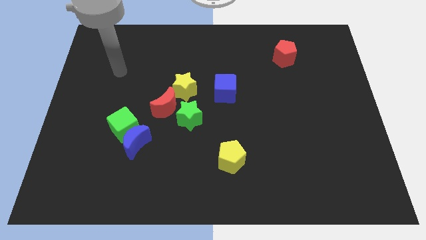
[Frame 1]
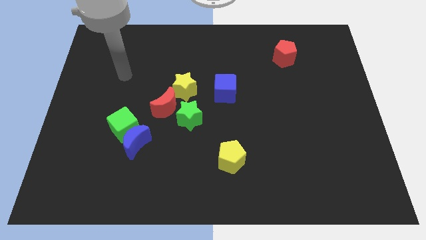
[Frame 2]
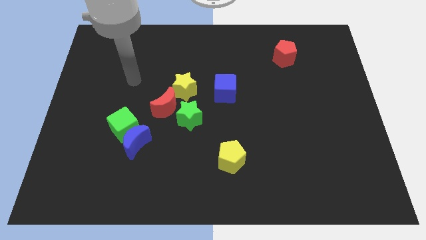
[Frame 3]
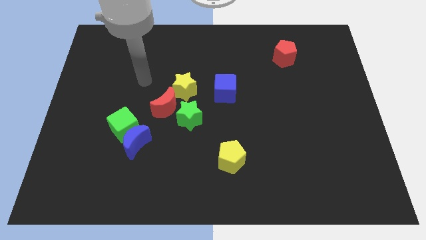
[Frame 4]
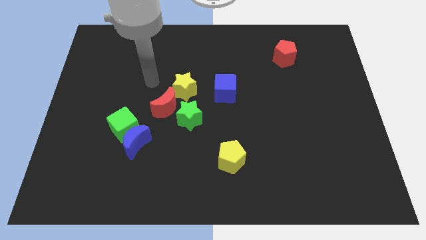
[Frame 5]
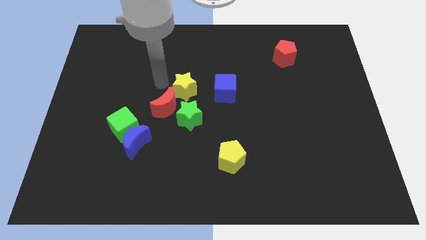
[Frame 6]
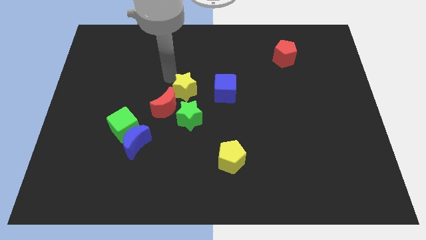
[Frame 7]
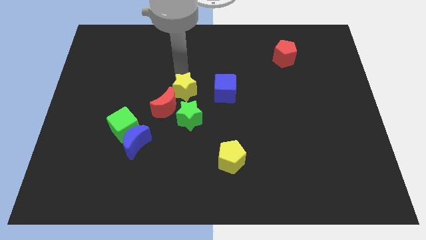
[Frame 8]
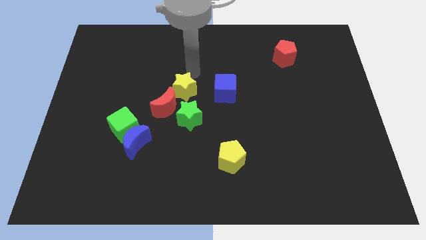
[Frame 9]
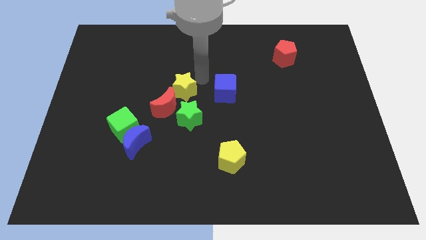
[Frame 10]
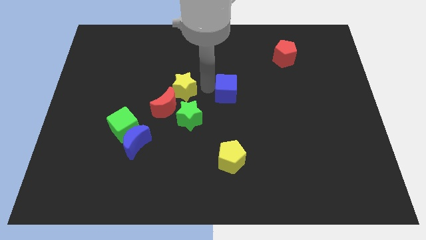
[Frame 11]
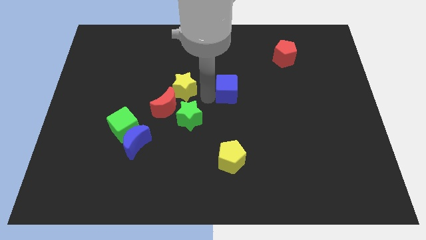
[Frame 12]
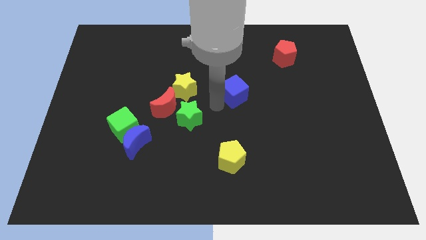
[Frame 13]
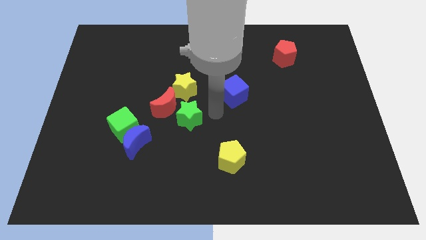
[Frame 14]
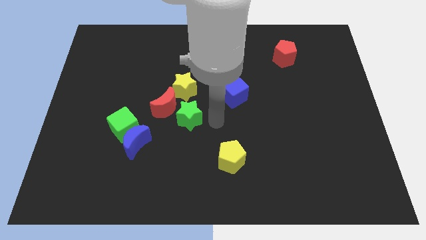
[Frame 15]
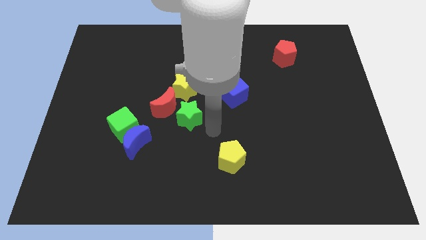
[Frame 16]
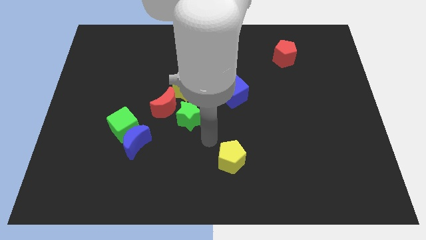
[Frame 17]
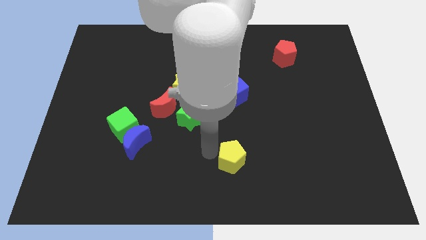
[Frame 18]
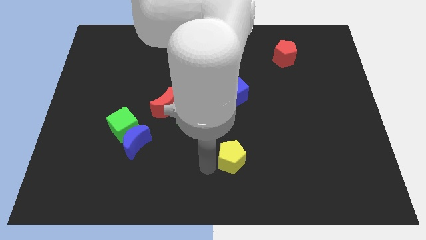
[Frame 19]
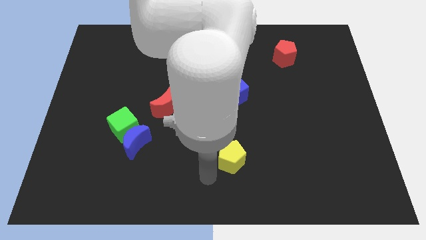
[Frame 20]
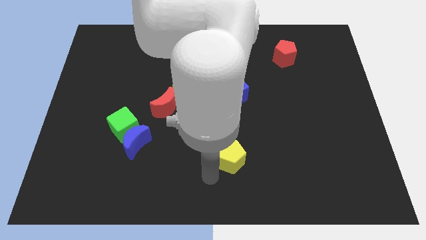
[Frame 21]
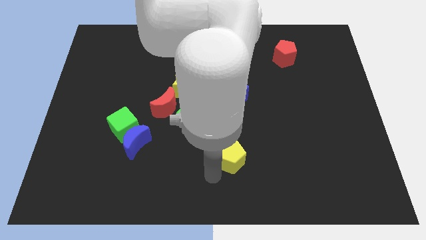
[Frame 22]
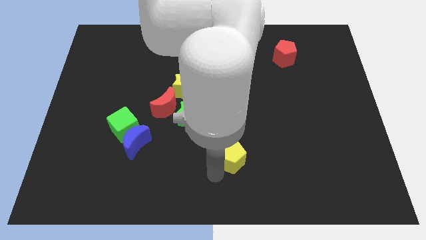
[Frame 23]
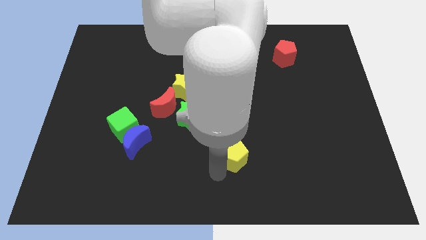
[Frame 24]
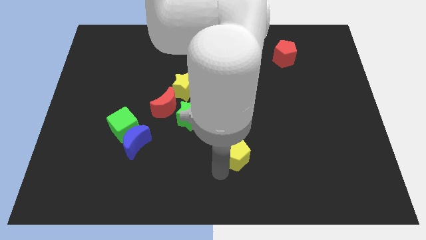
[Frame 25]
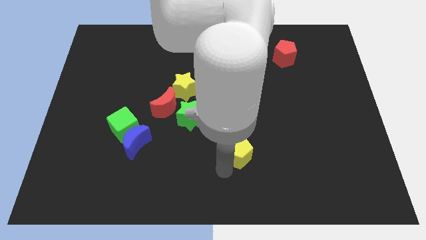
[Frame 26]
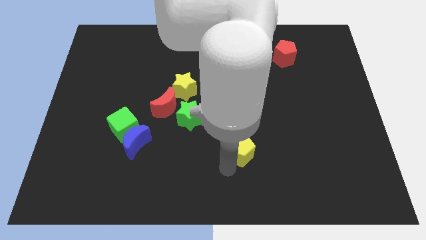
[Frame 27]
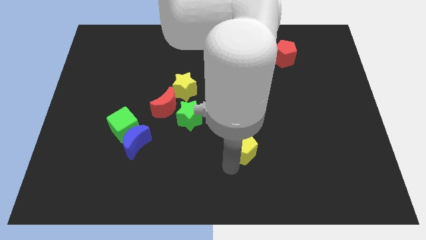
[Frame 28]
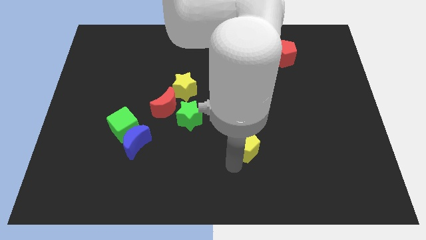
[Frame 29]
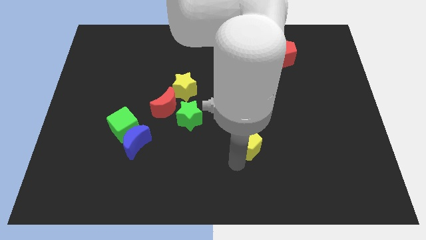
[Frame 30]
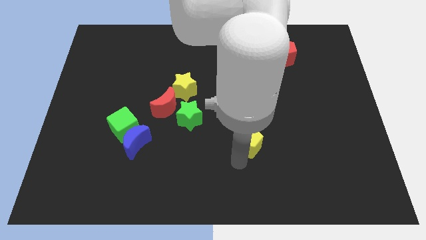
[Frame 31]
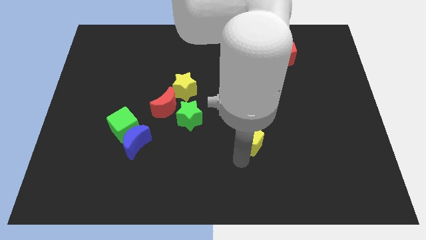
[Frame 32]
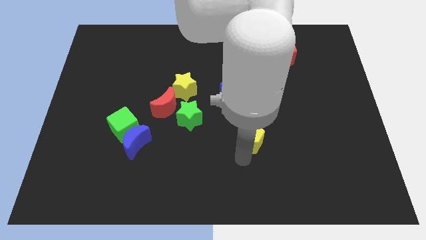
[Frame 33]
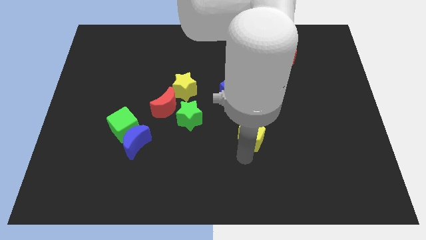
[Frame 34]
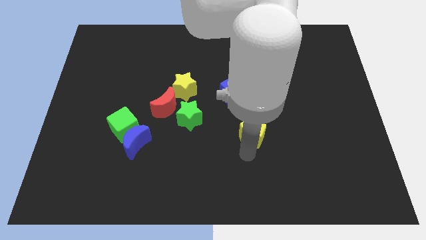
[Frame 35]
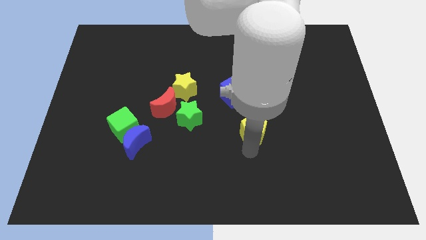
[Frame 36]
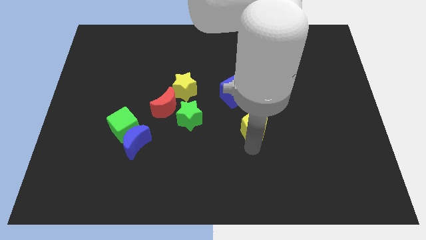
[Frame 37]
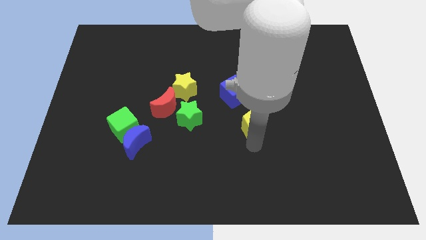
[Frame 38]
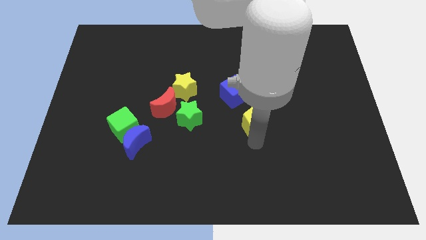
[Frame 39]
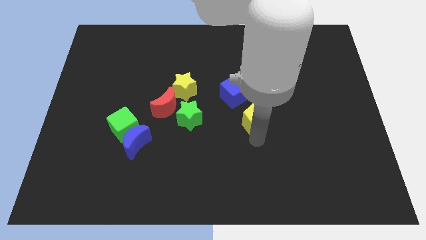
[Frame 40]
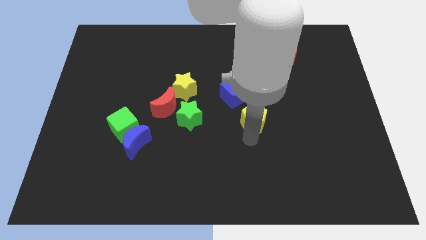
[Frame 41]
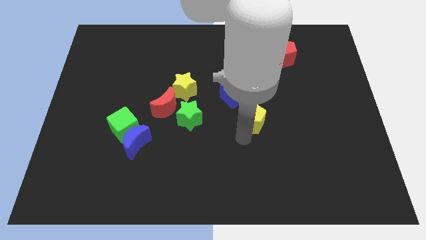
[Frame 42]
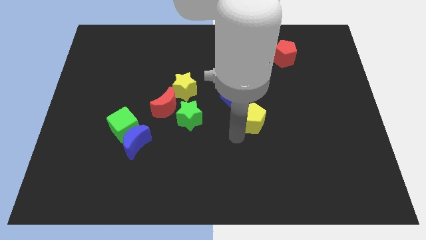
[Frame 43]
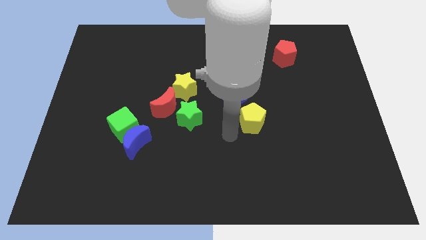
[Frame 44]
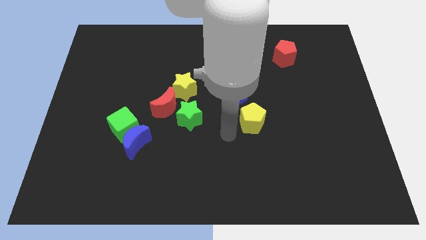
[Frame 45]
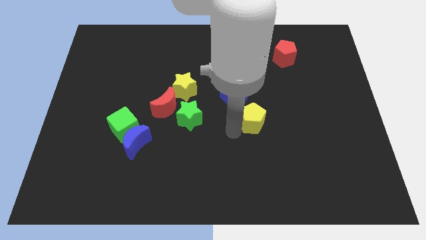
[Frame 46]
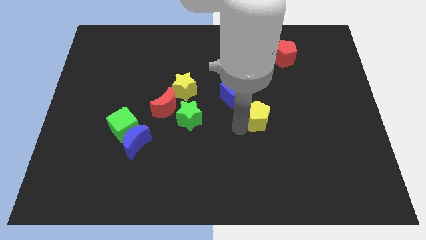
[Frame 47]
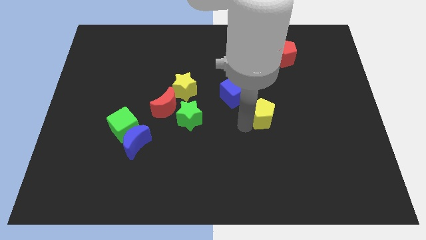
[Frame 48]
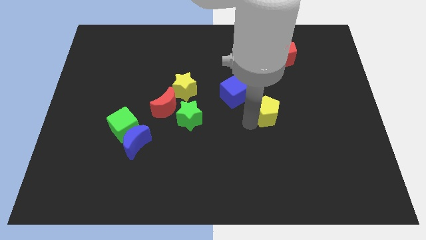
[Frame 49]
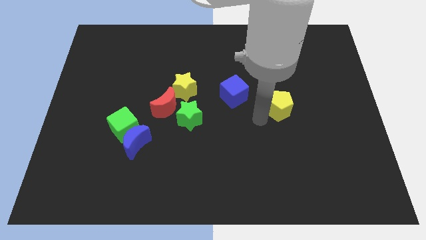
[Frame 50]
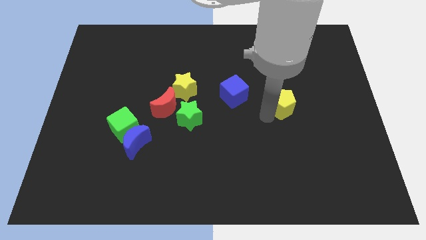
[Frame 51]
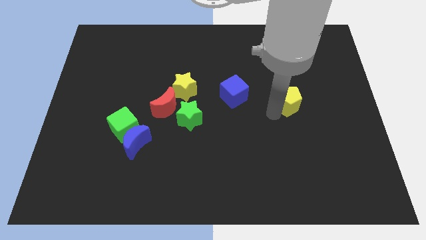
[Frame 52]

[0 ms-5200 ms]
put the yellow pentagon to the bottom of the red pentagon

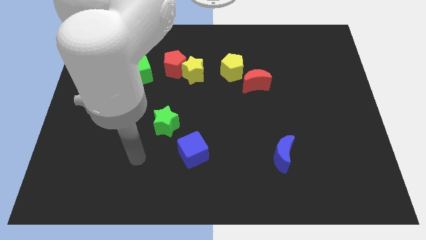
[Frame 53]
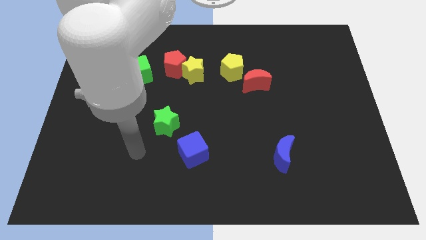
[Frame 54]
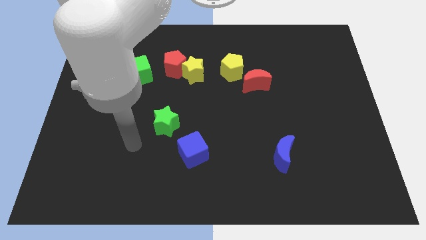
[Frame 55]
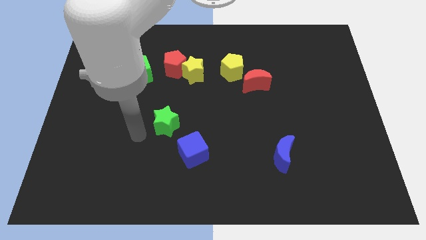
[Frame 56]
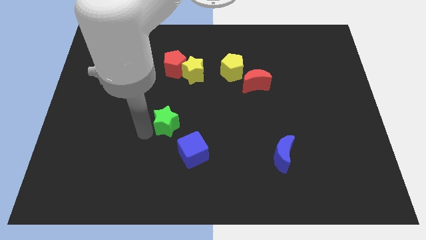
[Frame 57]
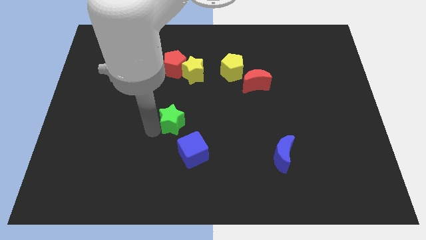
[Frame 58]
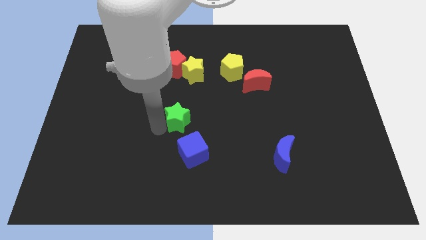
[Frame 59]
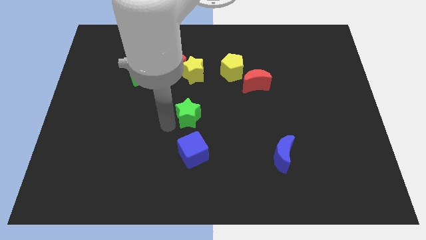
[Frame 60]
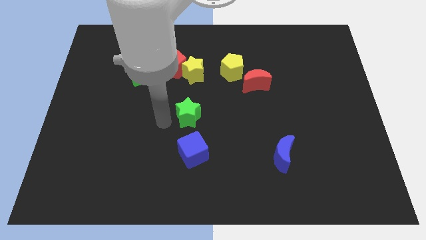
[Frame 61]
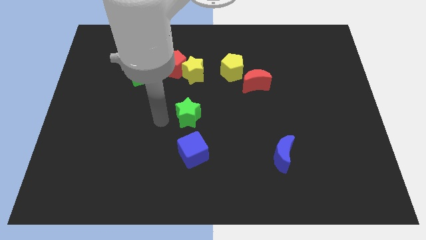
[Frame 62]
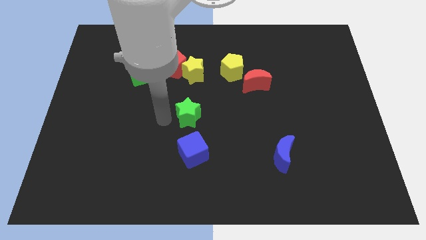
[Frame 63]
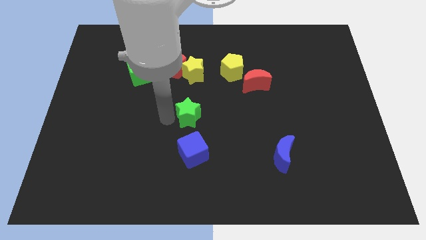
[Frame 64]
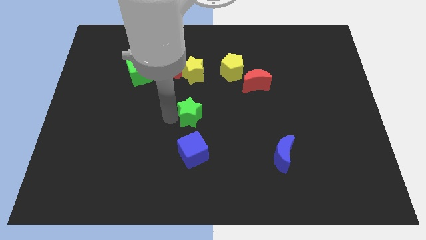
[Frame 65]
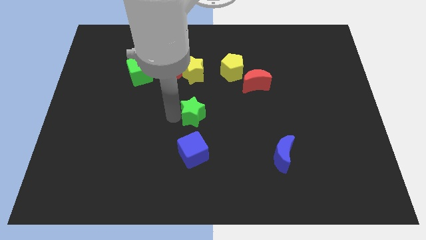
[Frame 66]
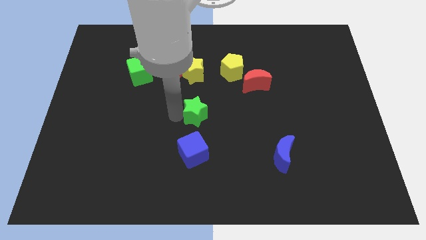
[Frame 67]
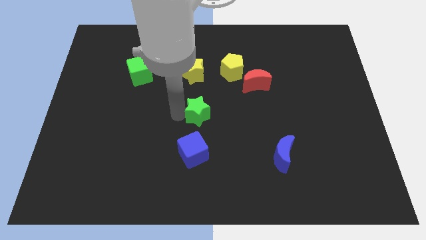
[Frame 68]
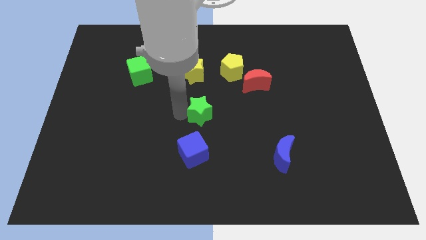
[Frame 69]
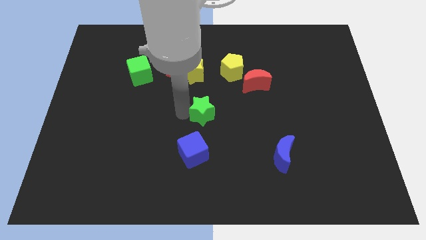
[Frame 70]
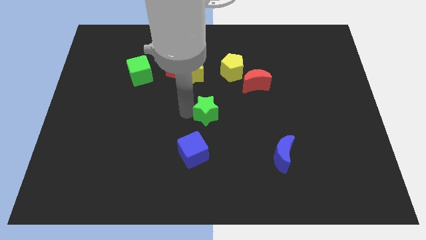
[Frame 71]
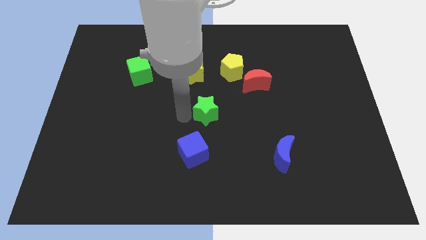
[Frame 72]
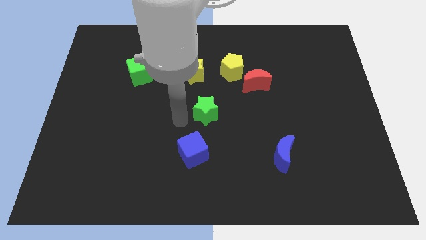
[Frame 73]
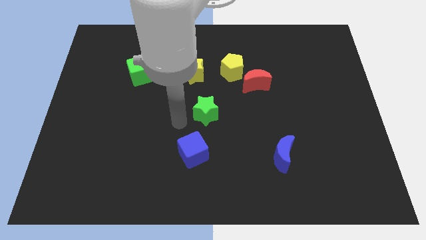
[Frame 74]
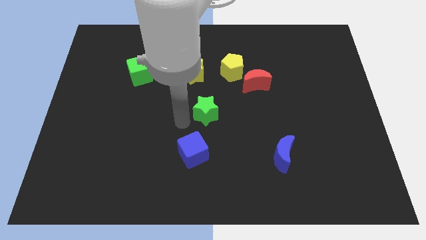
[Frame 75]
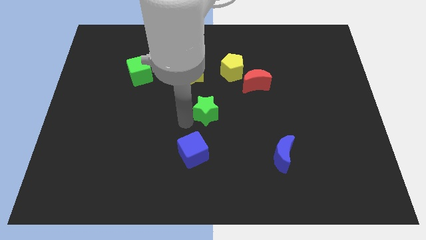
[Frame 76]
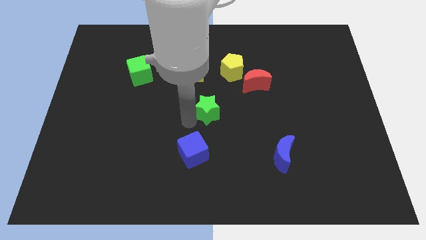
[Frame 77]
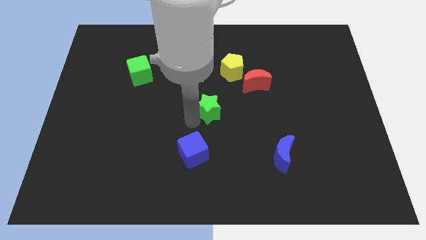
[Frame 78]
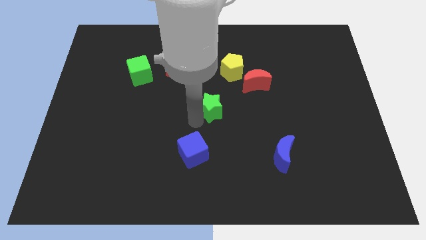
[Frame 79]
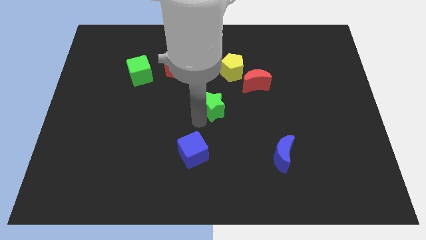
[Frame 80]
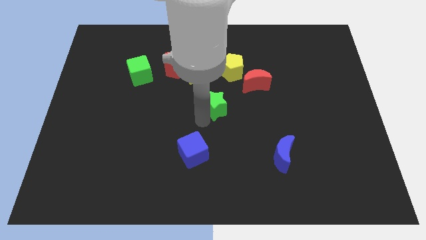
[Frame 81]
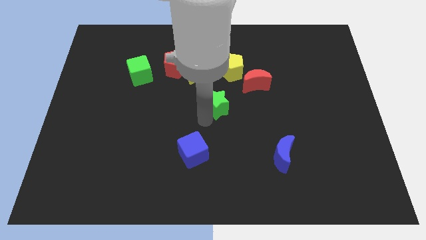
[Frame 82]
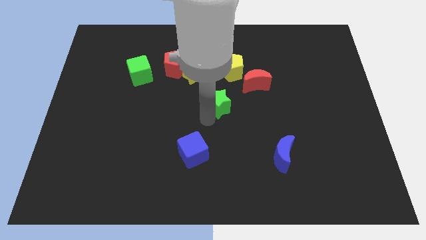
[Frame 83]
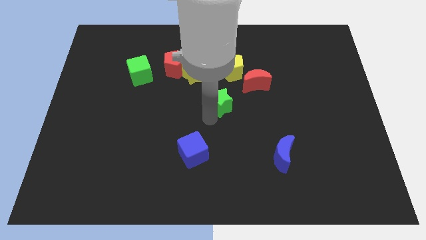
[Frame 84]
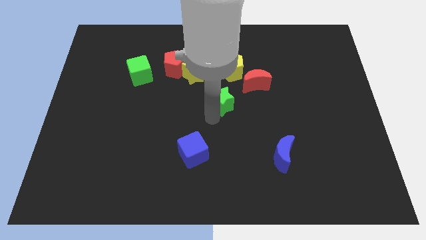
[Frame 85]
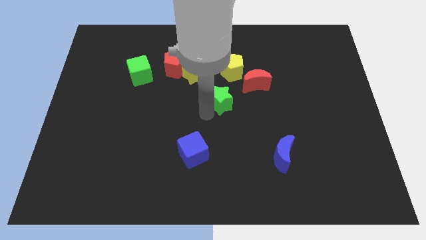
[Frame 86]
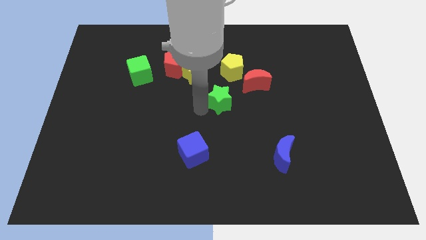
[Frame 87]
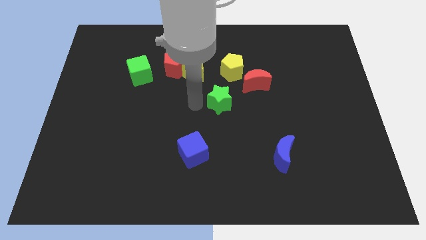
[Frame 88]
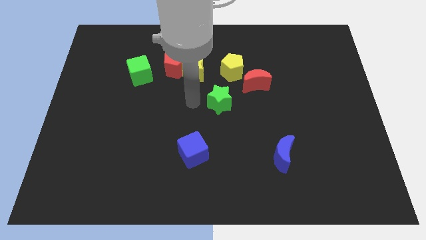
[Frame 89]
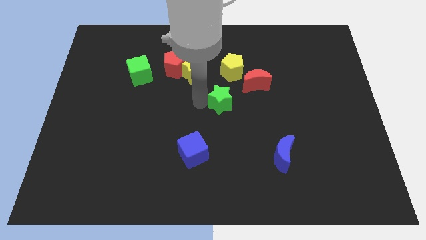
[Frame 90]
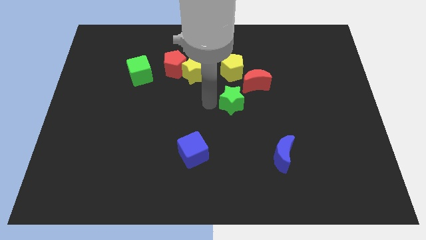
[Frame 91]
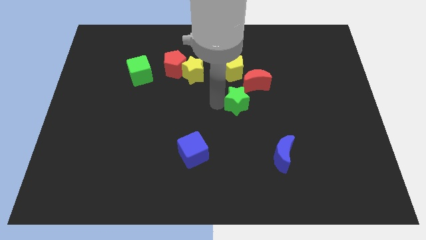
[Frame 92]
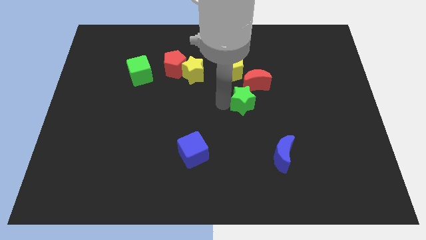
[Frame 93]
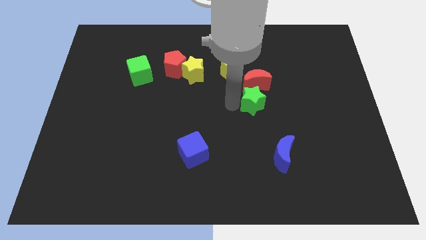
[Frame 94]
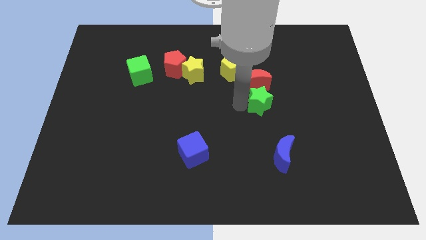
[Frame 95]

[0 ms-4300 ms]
push the green star to the bottom right side of the red moon
